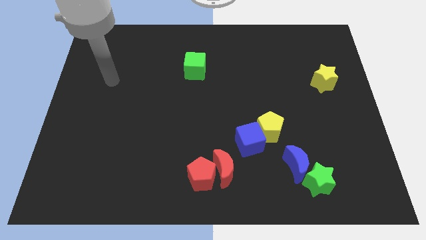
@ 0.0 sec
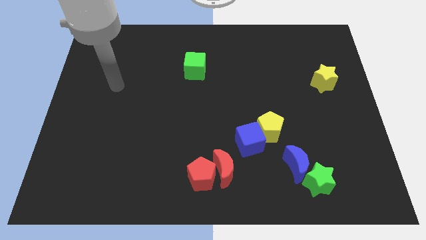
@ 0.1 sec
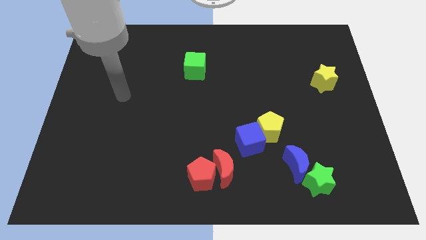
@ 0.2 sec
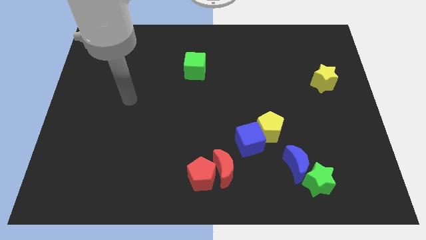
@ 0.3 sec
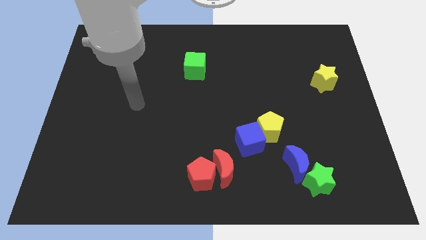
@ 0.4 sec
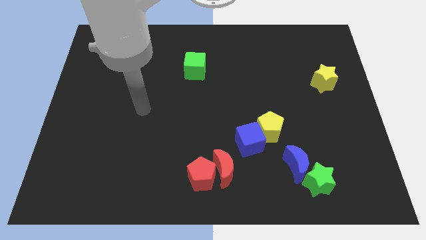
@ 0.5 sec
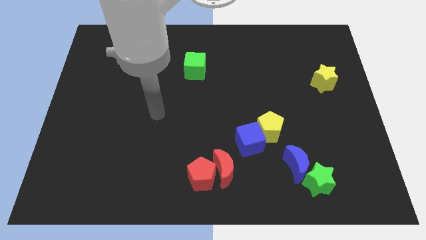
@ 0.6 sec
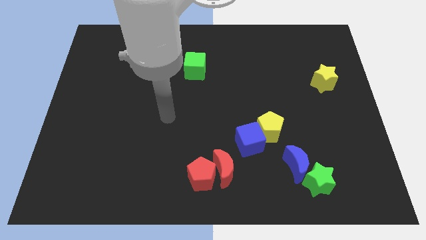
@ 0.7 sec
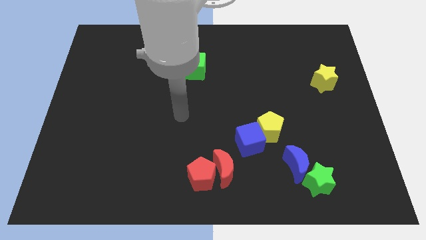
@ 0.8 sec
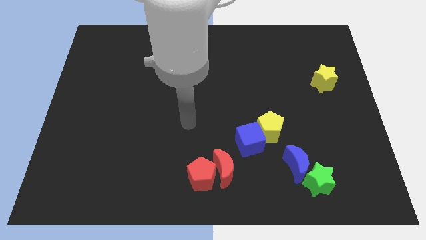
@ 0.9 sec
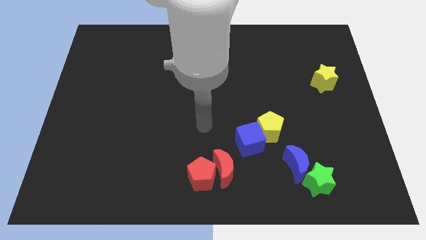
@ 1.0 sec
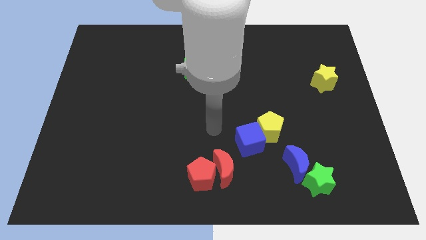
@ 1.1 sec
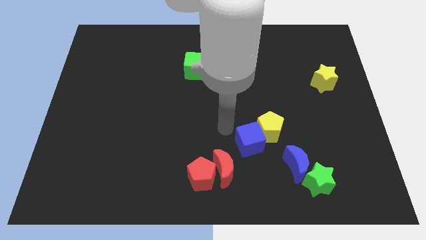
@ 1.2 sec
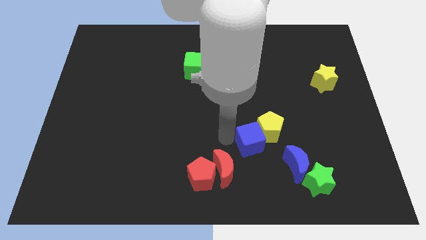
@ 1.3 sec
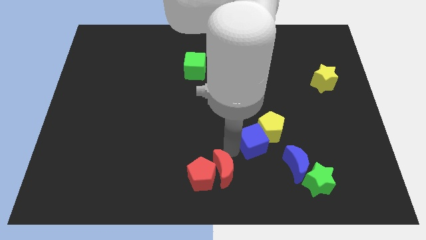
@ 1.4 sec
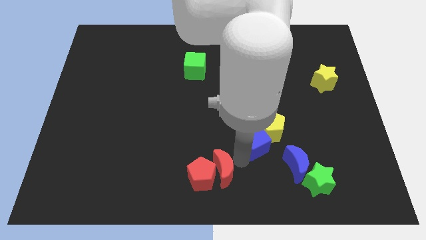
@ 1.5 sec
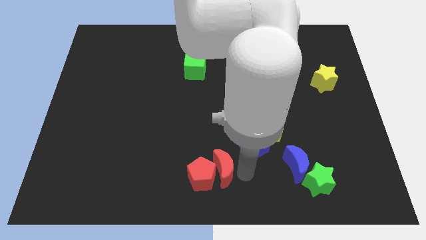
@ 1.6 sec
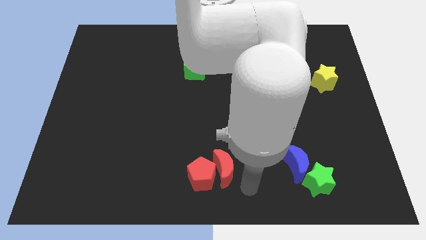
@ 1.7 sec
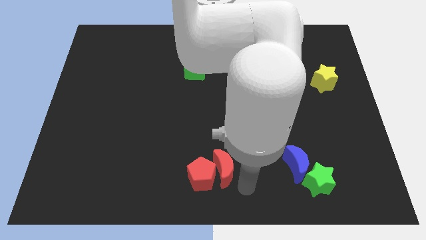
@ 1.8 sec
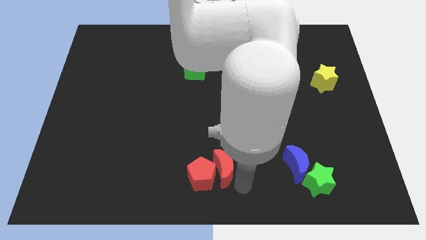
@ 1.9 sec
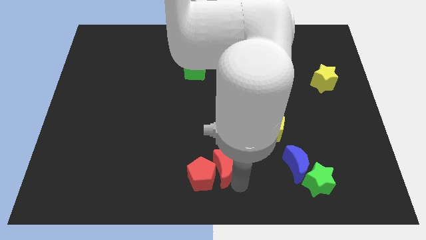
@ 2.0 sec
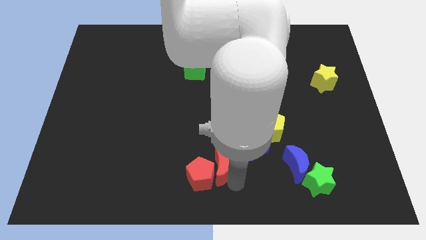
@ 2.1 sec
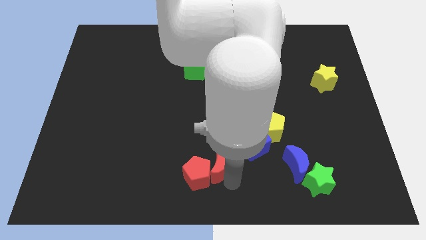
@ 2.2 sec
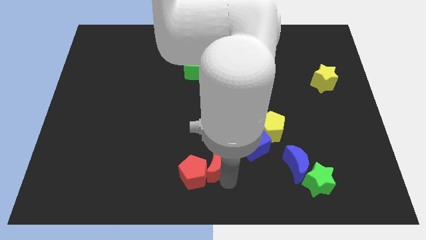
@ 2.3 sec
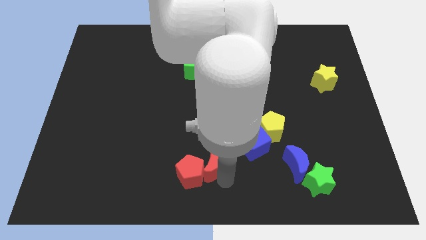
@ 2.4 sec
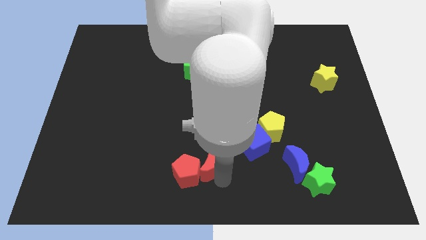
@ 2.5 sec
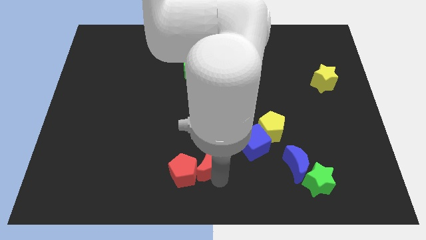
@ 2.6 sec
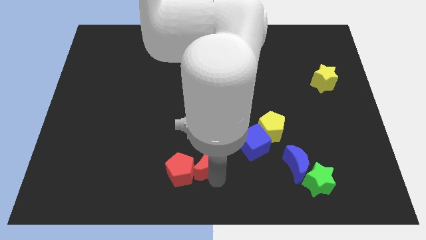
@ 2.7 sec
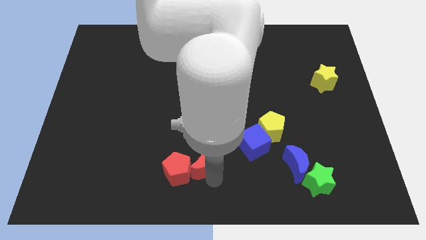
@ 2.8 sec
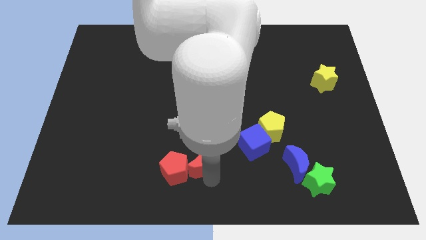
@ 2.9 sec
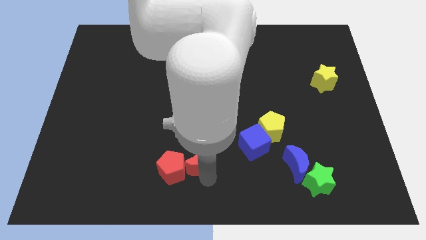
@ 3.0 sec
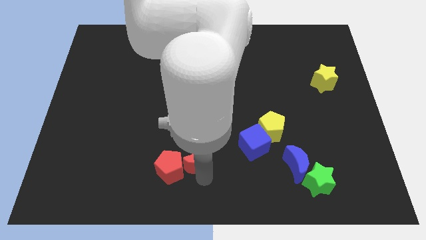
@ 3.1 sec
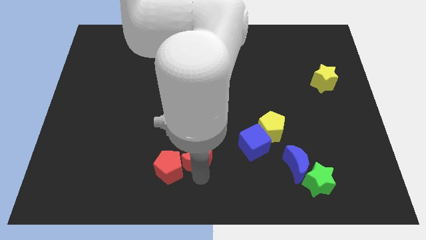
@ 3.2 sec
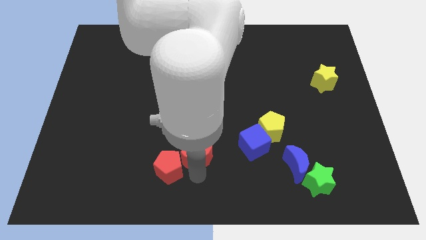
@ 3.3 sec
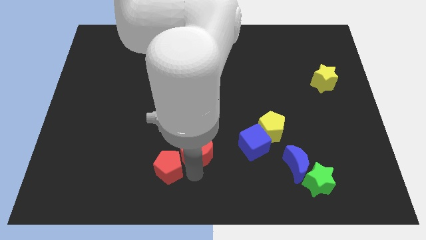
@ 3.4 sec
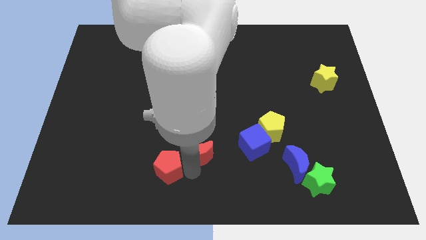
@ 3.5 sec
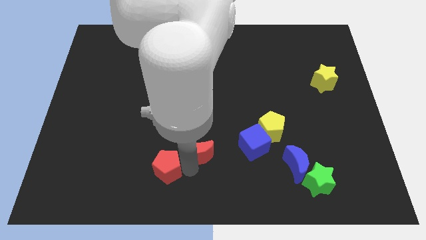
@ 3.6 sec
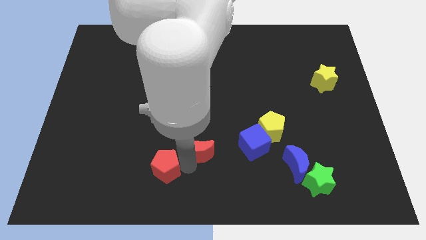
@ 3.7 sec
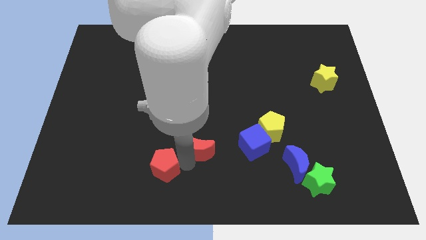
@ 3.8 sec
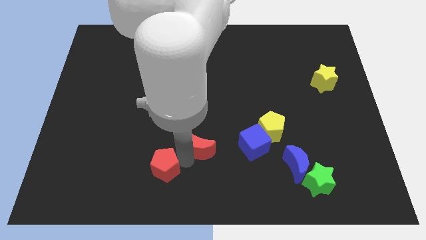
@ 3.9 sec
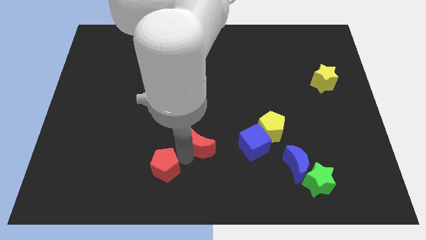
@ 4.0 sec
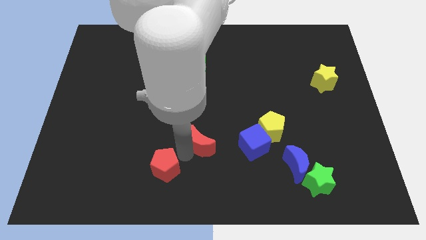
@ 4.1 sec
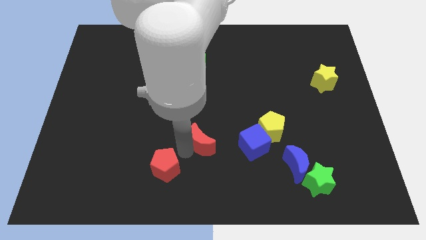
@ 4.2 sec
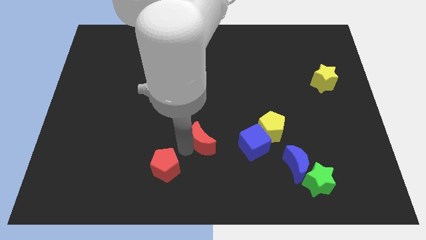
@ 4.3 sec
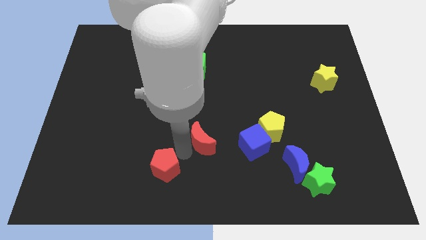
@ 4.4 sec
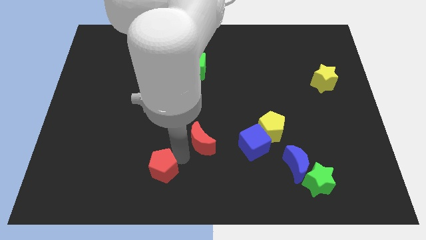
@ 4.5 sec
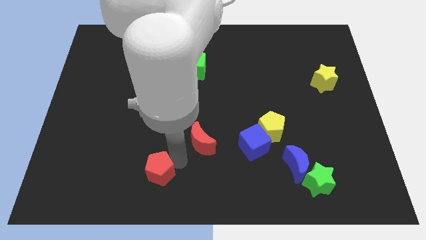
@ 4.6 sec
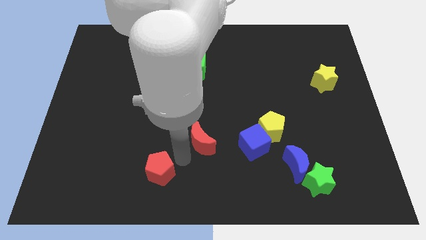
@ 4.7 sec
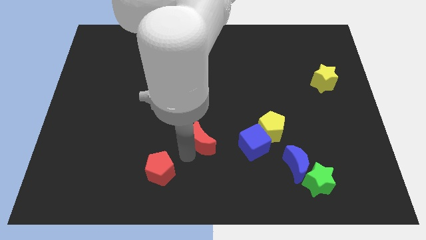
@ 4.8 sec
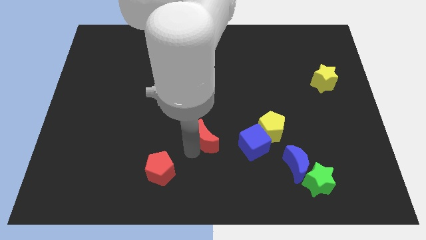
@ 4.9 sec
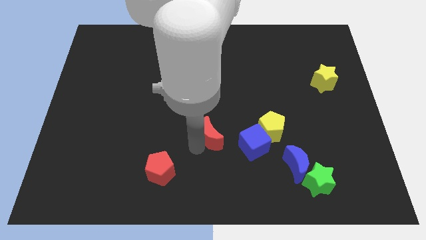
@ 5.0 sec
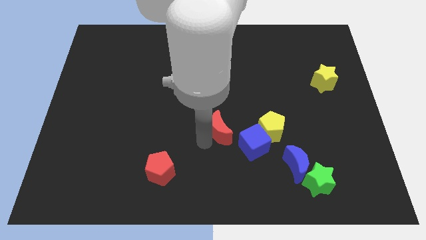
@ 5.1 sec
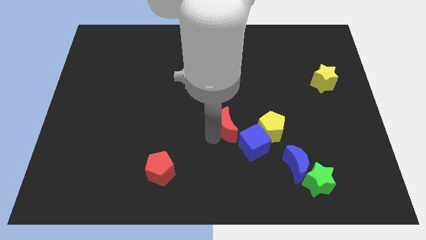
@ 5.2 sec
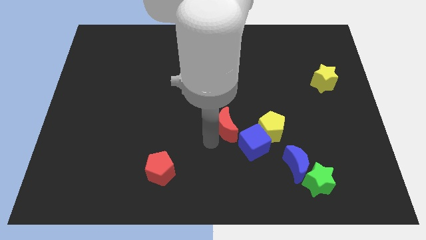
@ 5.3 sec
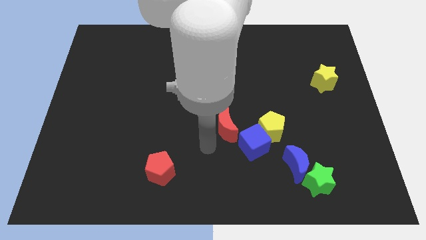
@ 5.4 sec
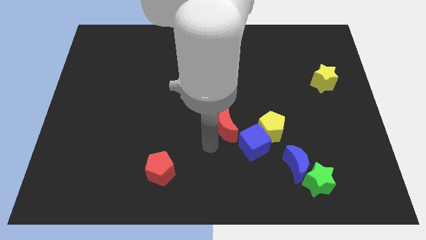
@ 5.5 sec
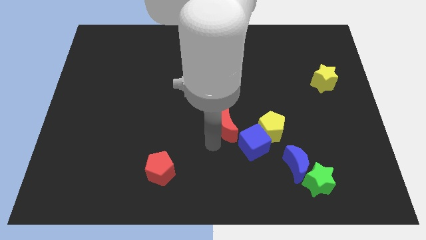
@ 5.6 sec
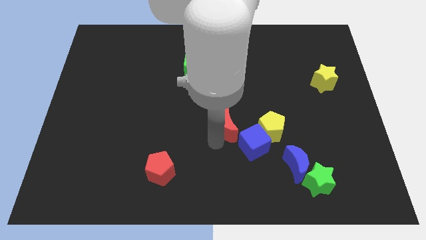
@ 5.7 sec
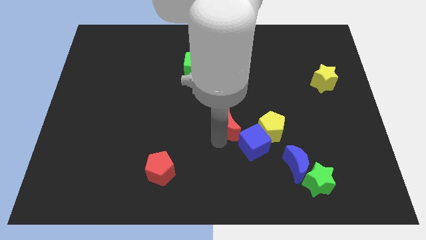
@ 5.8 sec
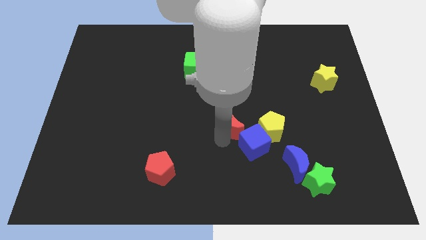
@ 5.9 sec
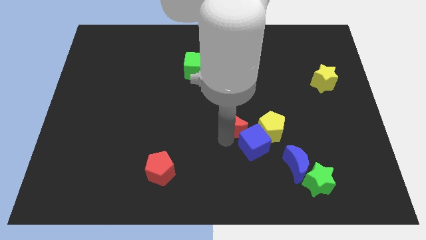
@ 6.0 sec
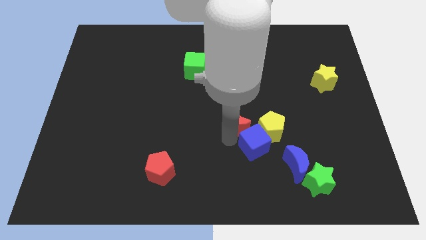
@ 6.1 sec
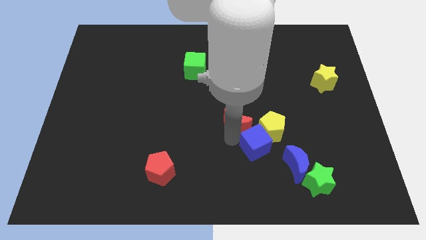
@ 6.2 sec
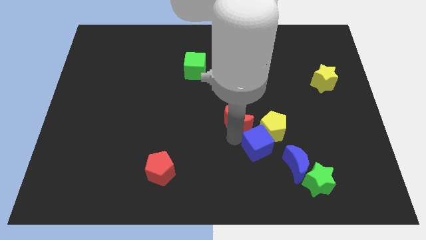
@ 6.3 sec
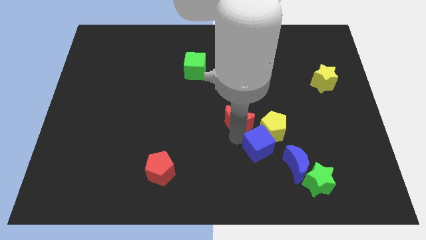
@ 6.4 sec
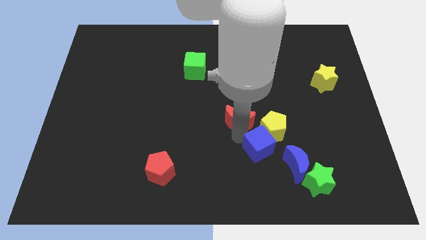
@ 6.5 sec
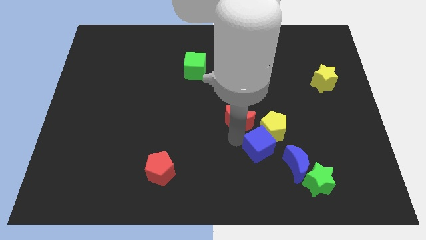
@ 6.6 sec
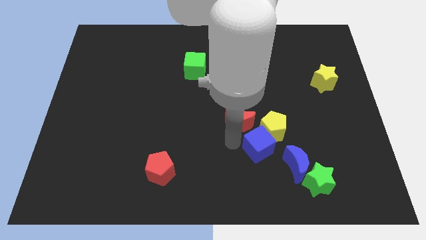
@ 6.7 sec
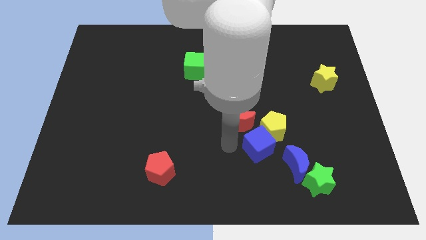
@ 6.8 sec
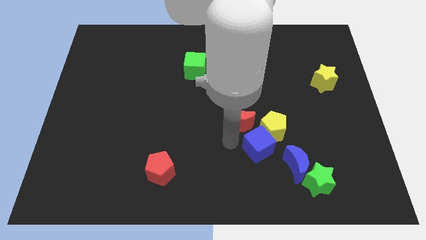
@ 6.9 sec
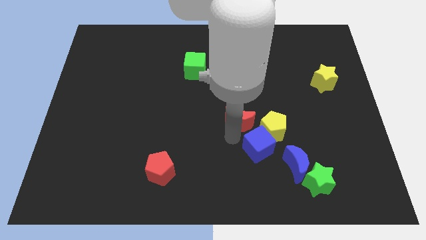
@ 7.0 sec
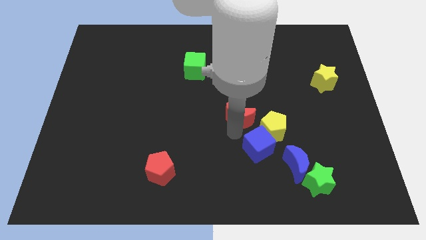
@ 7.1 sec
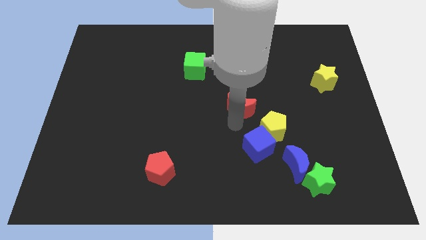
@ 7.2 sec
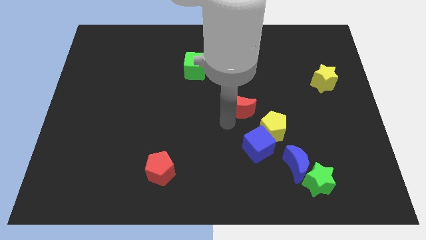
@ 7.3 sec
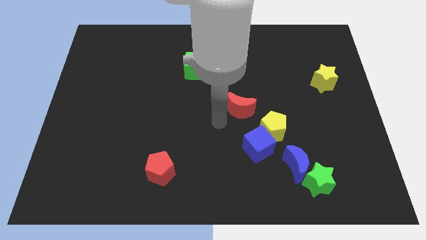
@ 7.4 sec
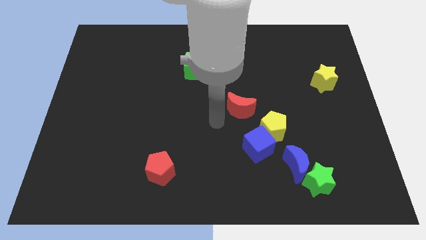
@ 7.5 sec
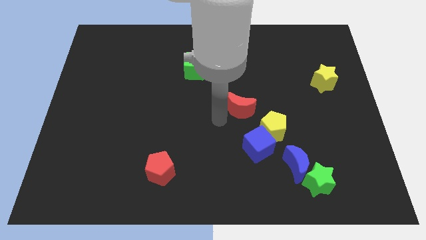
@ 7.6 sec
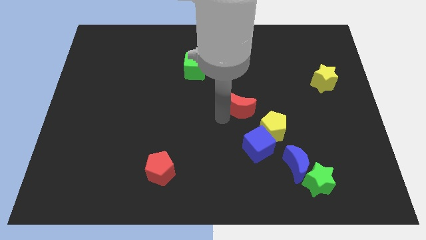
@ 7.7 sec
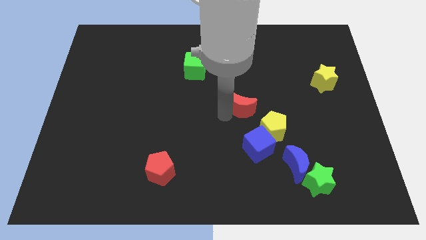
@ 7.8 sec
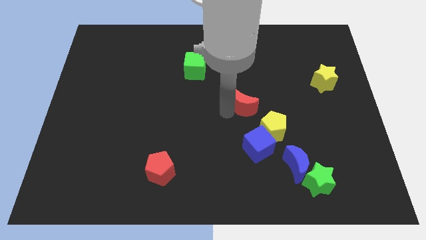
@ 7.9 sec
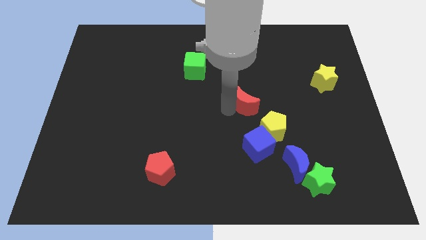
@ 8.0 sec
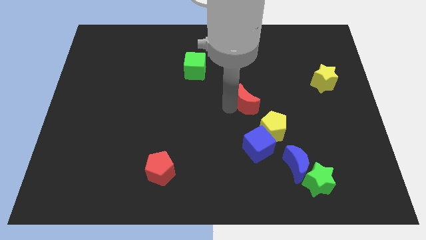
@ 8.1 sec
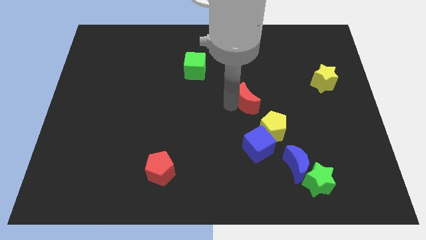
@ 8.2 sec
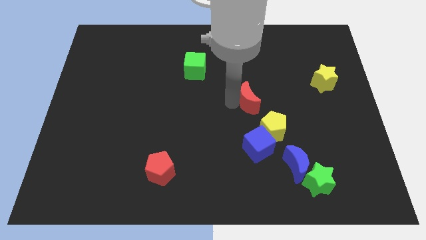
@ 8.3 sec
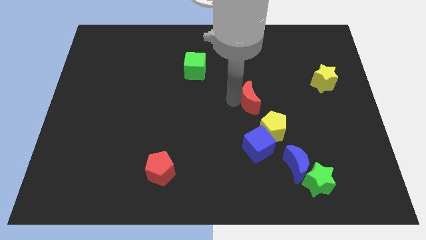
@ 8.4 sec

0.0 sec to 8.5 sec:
move the red moon above the yellow pentagon
